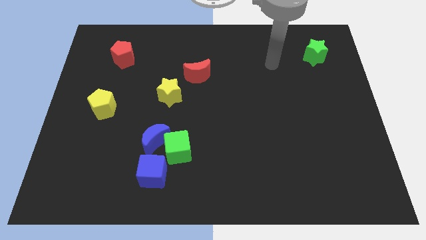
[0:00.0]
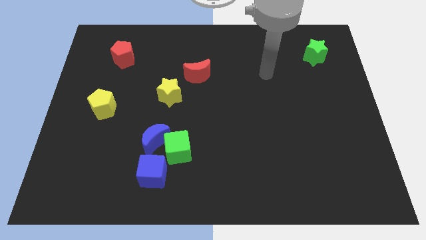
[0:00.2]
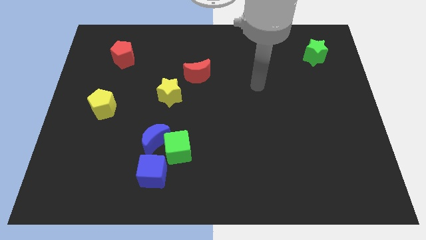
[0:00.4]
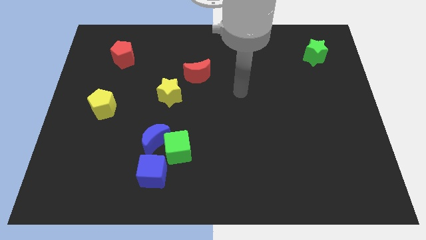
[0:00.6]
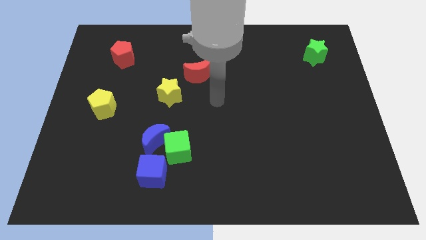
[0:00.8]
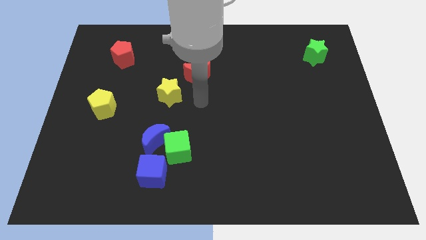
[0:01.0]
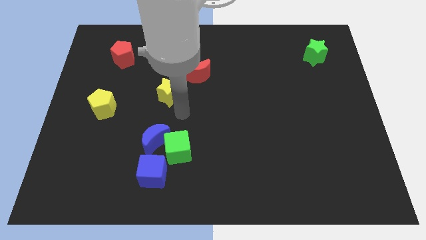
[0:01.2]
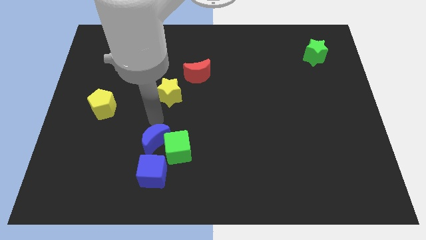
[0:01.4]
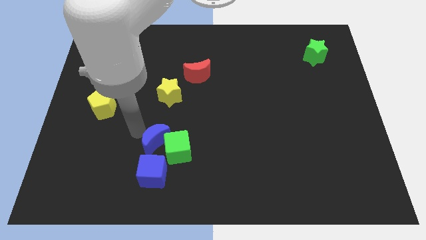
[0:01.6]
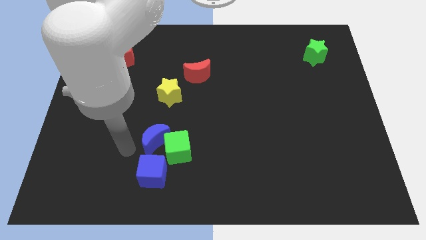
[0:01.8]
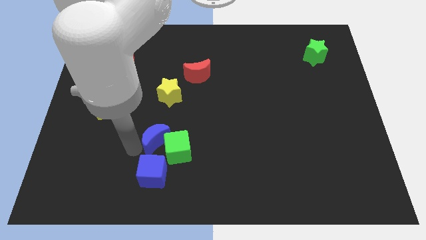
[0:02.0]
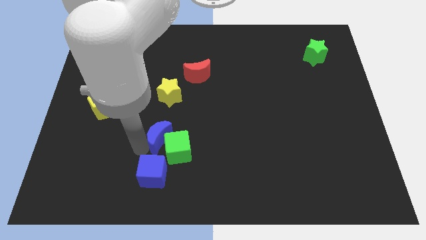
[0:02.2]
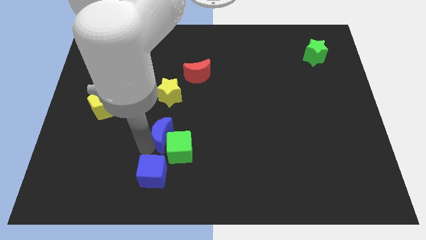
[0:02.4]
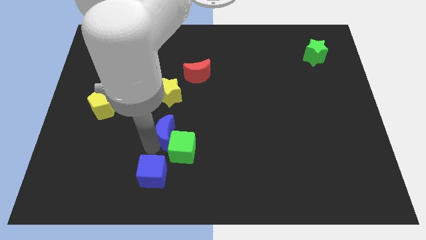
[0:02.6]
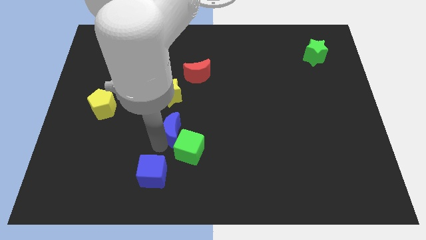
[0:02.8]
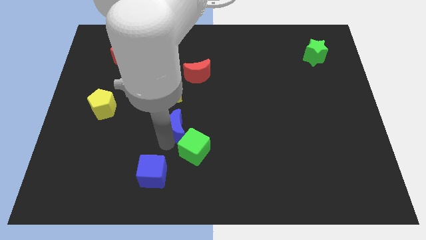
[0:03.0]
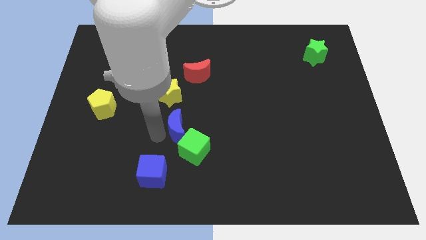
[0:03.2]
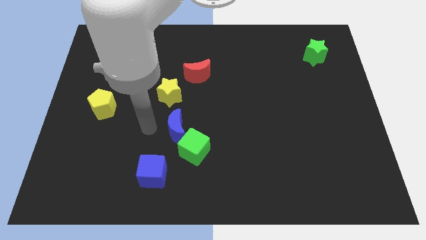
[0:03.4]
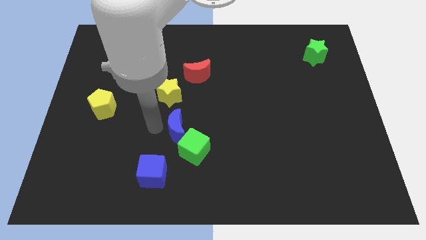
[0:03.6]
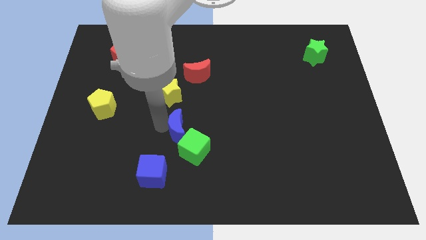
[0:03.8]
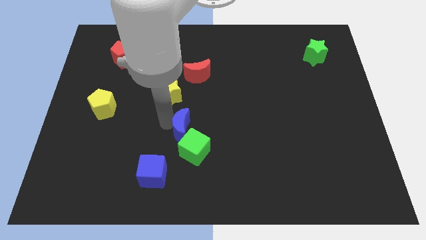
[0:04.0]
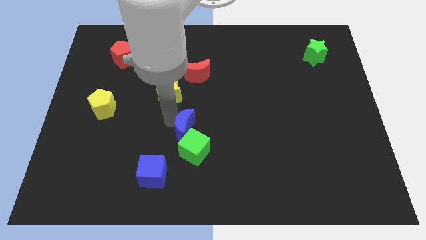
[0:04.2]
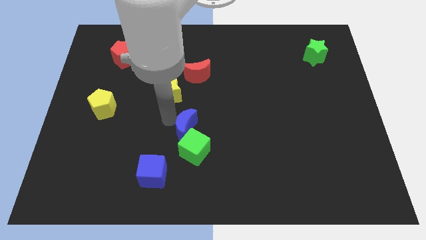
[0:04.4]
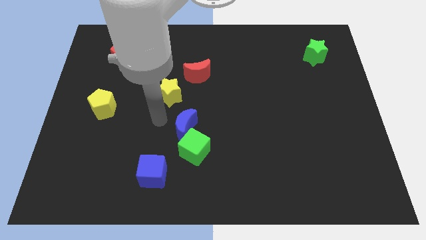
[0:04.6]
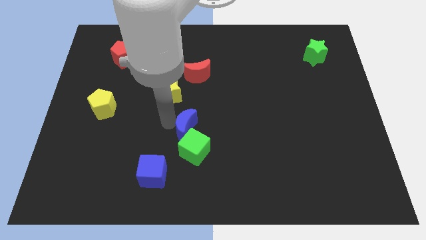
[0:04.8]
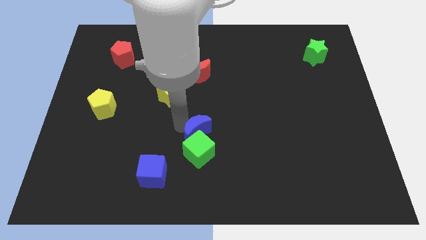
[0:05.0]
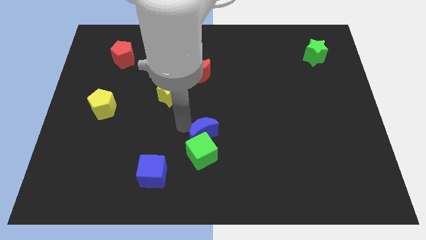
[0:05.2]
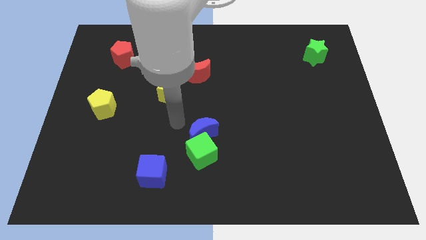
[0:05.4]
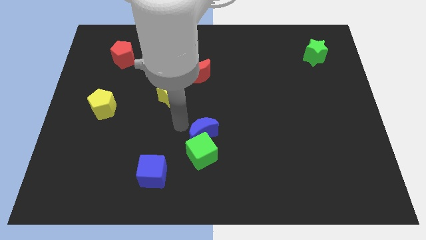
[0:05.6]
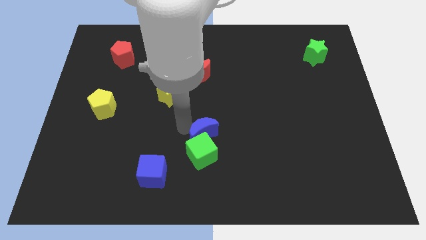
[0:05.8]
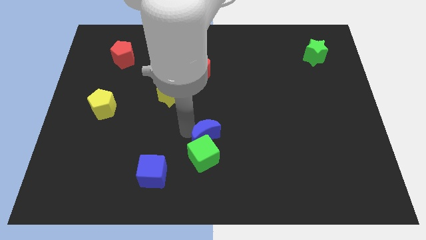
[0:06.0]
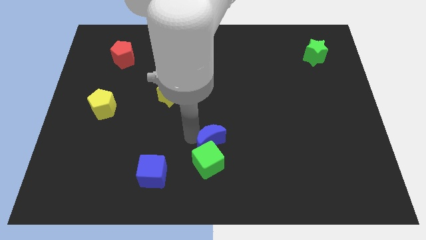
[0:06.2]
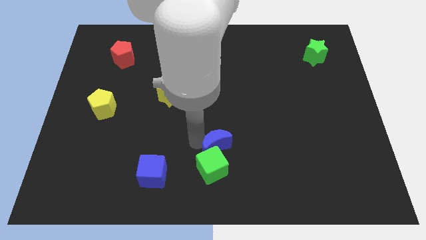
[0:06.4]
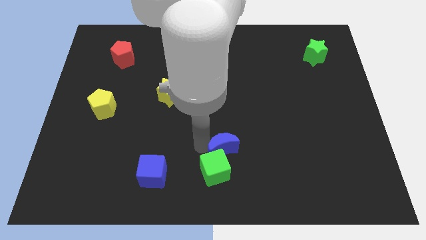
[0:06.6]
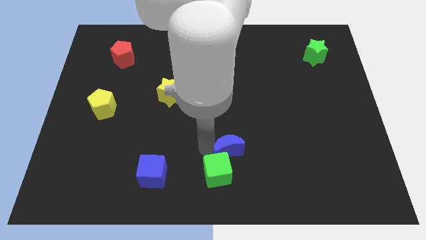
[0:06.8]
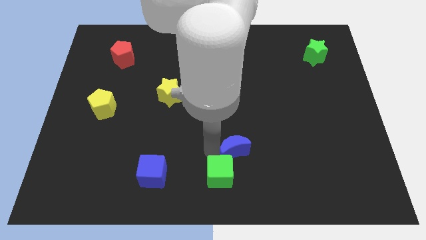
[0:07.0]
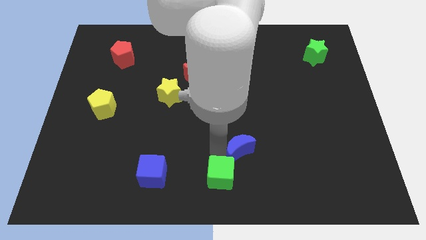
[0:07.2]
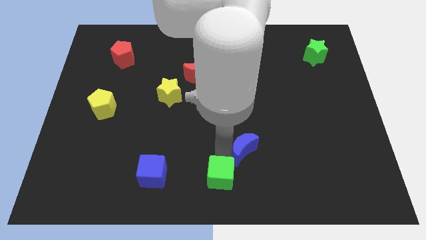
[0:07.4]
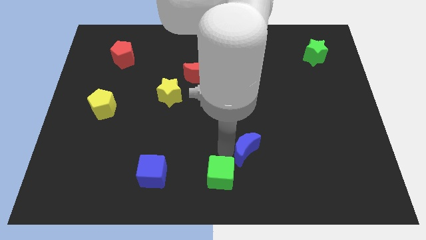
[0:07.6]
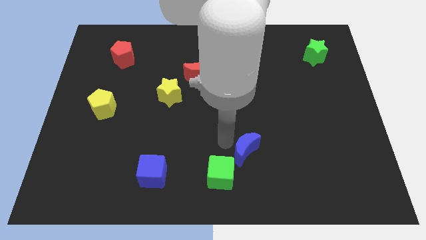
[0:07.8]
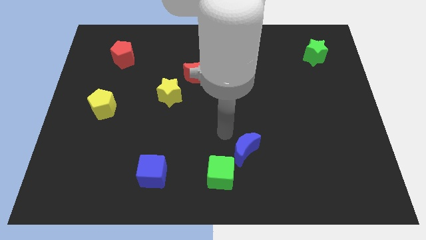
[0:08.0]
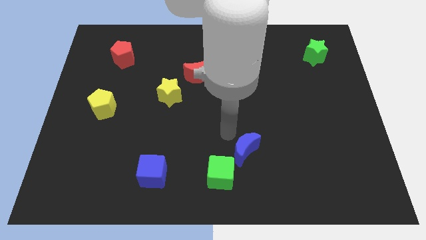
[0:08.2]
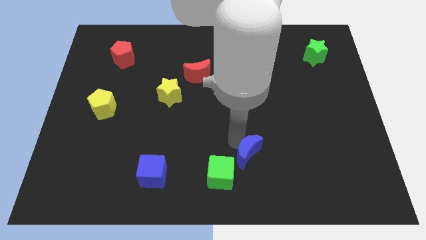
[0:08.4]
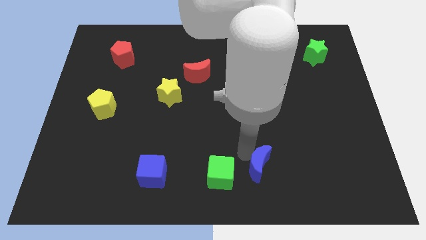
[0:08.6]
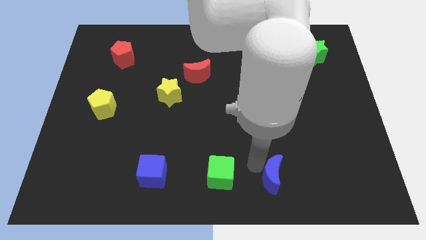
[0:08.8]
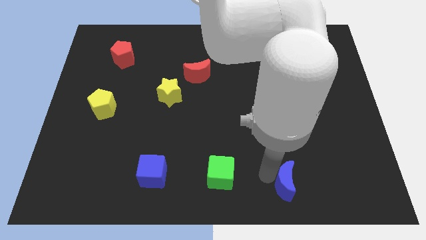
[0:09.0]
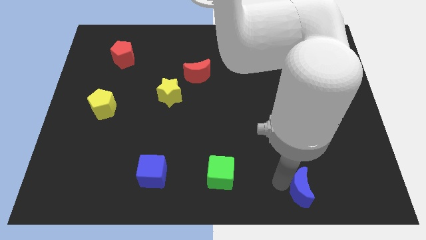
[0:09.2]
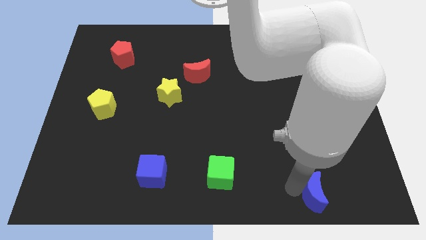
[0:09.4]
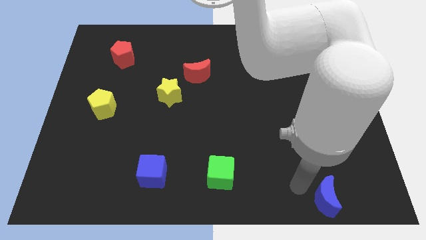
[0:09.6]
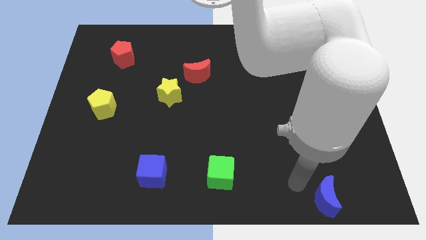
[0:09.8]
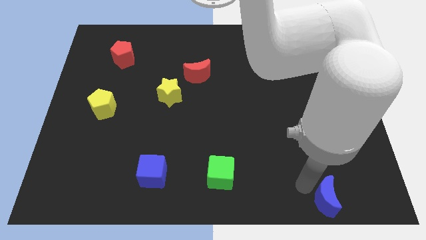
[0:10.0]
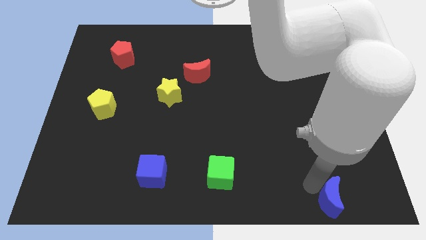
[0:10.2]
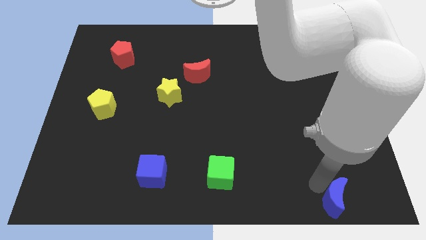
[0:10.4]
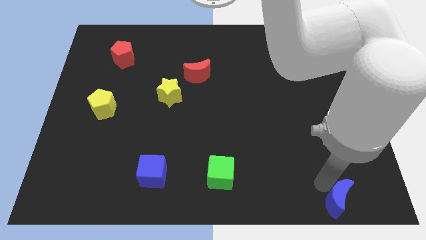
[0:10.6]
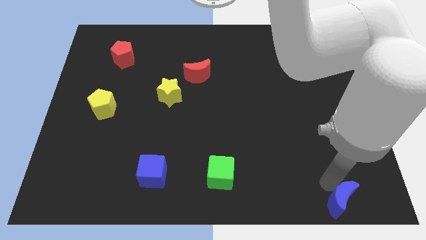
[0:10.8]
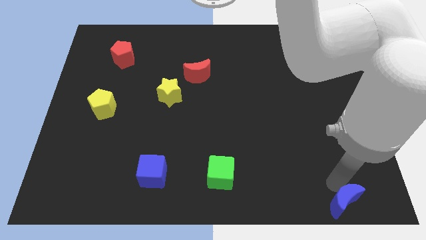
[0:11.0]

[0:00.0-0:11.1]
slide the blue moon to the bottom right

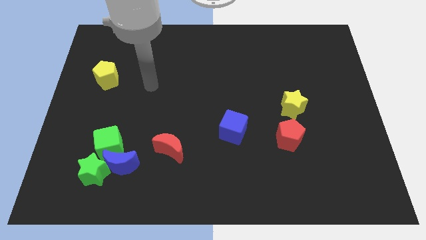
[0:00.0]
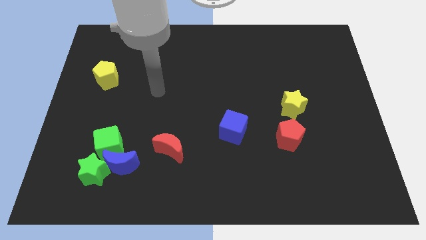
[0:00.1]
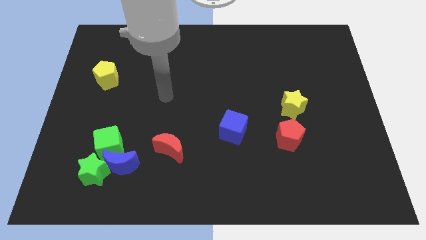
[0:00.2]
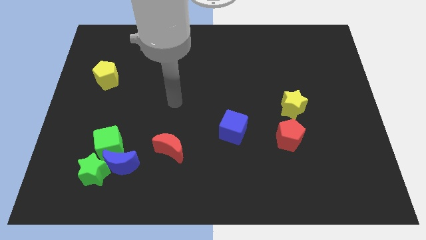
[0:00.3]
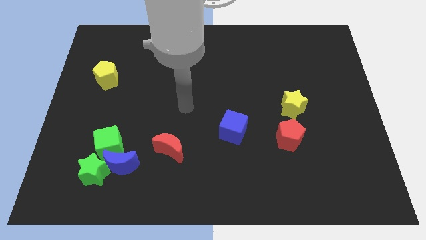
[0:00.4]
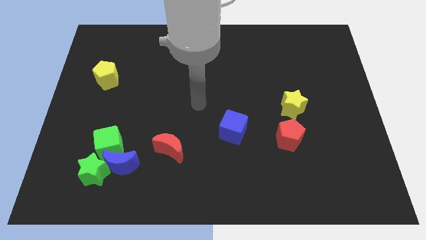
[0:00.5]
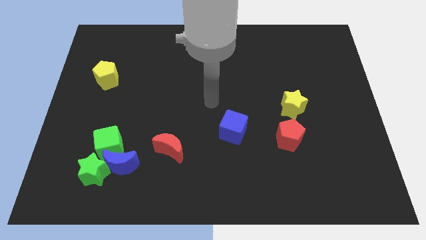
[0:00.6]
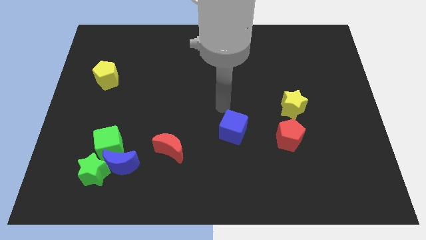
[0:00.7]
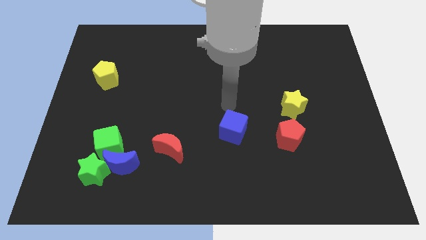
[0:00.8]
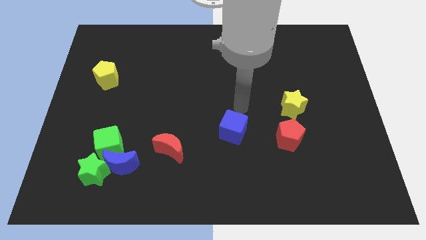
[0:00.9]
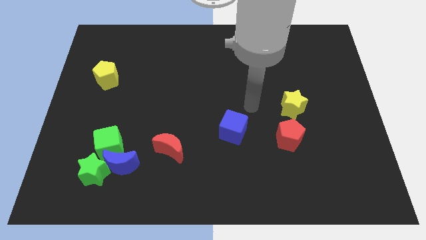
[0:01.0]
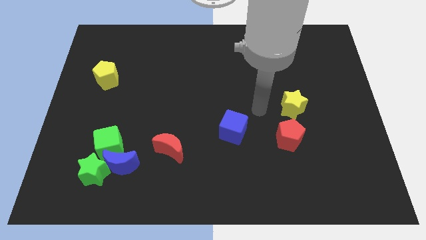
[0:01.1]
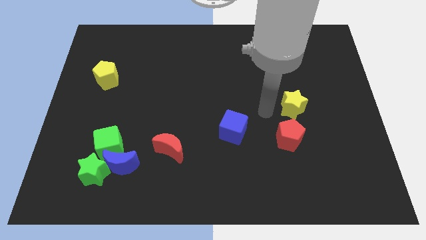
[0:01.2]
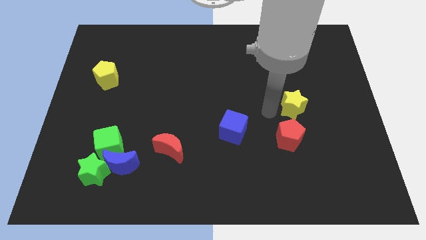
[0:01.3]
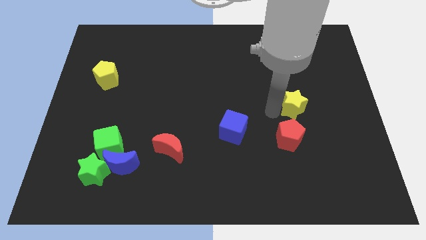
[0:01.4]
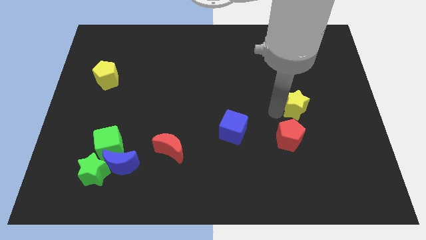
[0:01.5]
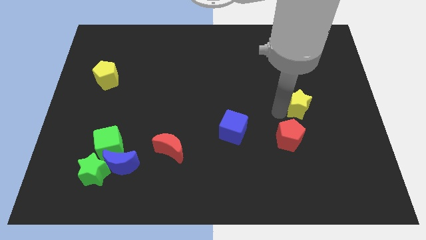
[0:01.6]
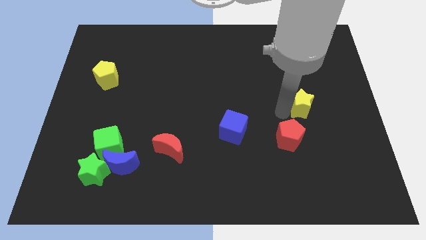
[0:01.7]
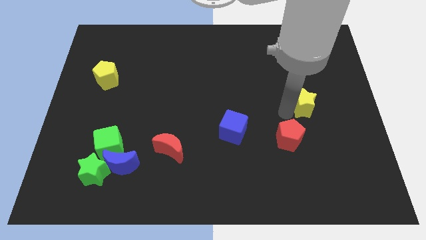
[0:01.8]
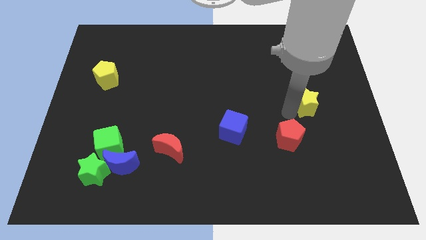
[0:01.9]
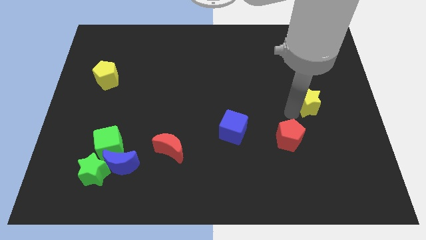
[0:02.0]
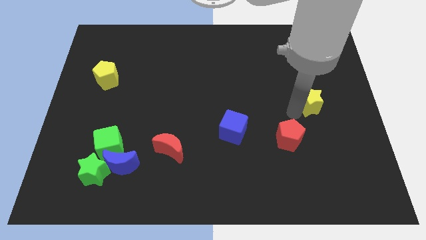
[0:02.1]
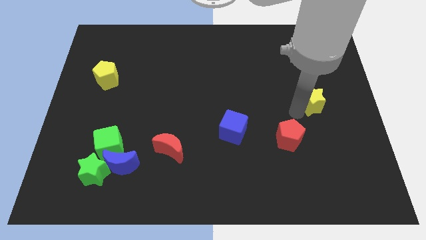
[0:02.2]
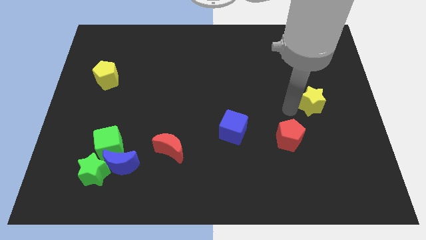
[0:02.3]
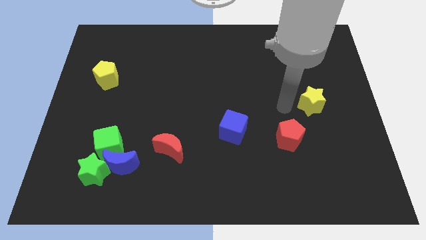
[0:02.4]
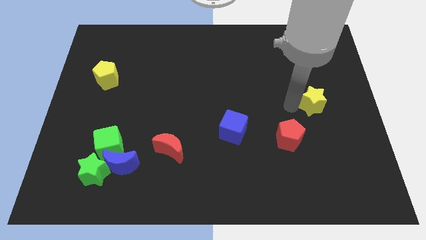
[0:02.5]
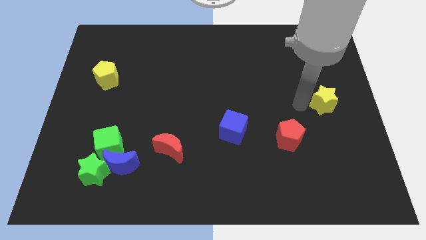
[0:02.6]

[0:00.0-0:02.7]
push the yellow star to the right side
